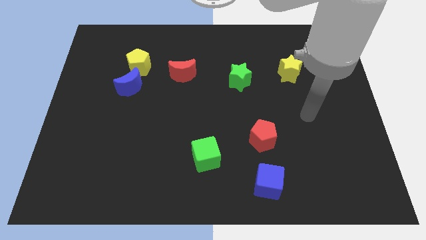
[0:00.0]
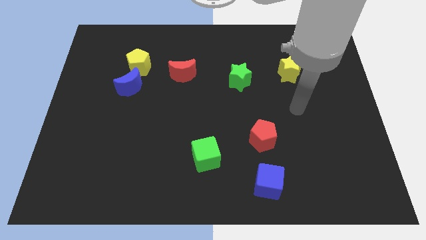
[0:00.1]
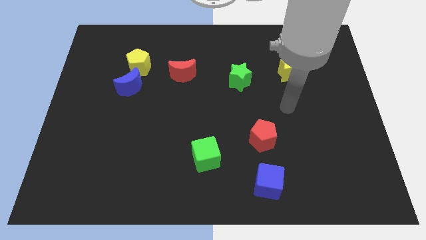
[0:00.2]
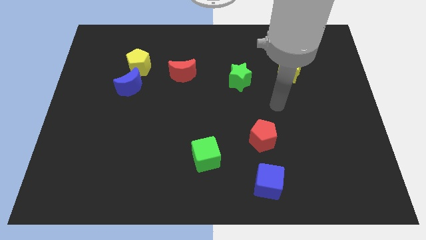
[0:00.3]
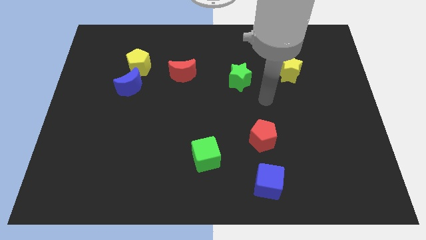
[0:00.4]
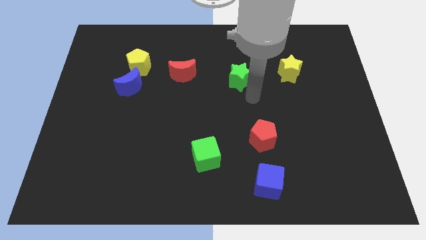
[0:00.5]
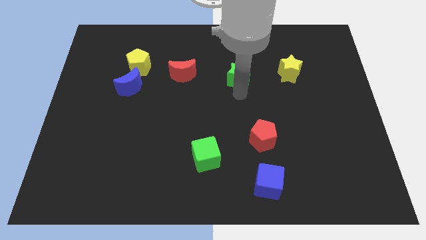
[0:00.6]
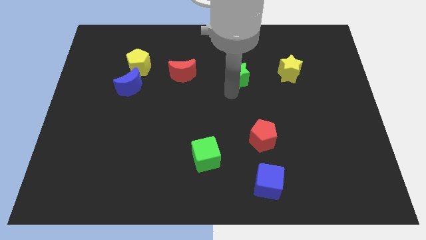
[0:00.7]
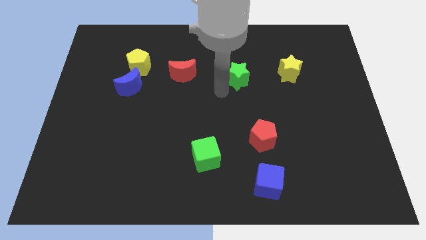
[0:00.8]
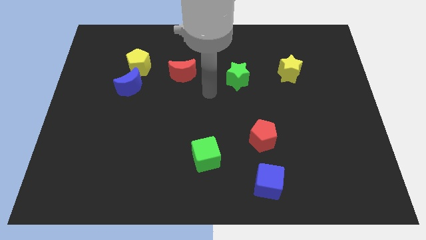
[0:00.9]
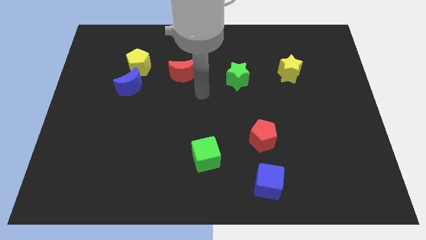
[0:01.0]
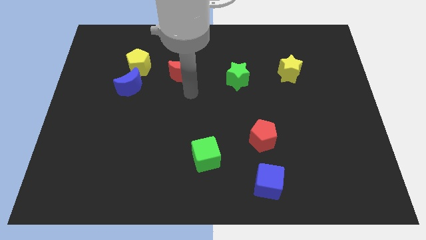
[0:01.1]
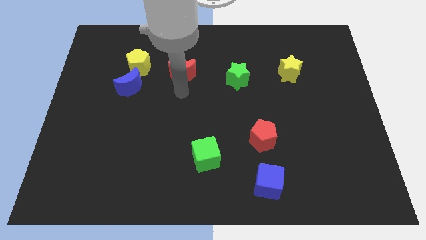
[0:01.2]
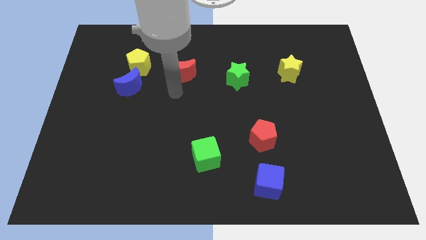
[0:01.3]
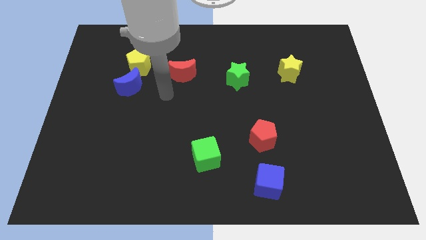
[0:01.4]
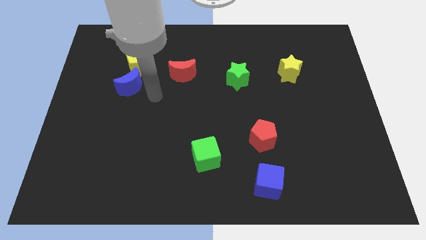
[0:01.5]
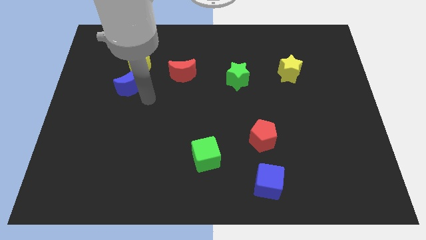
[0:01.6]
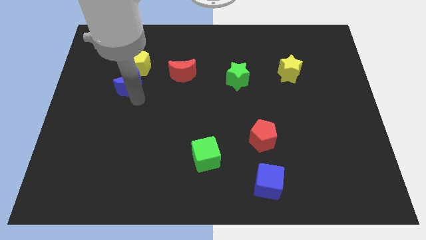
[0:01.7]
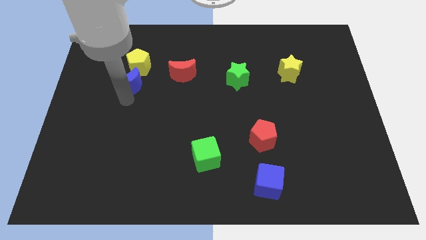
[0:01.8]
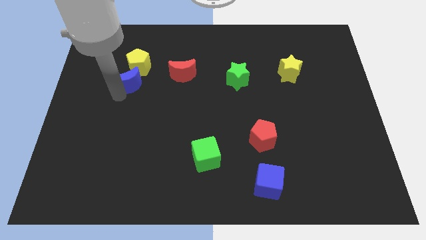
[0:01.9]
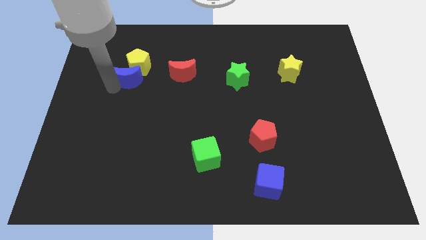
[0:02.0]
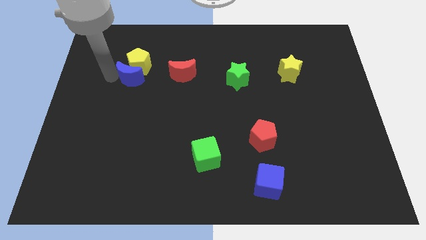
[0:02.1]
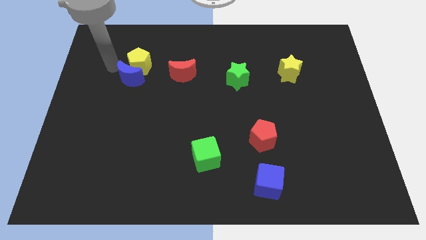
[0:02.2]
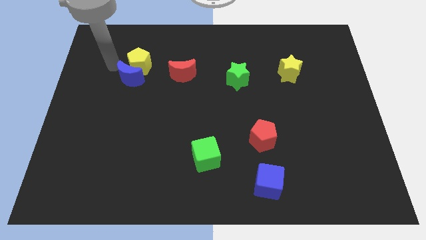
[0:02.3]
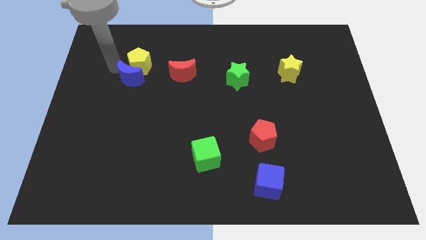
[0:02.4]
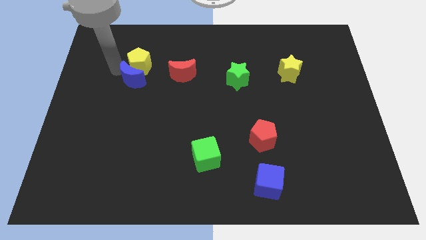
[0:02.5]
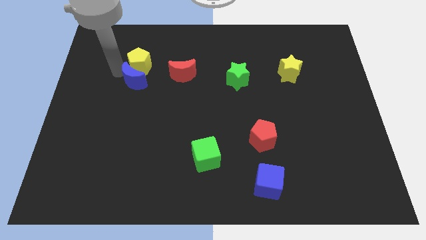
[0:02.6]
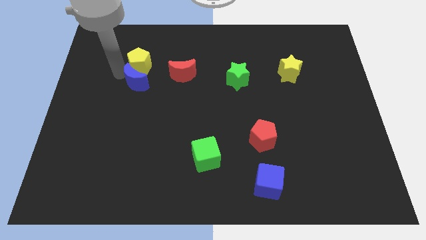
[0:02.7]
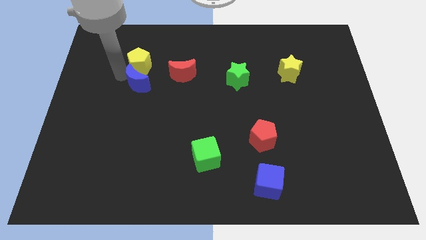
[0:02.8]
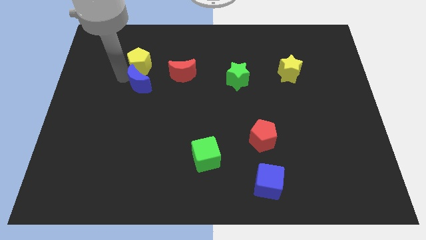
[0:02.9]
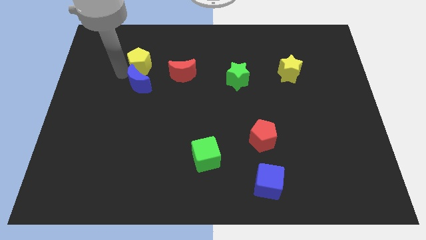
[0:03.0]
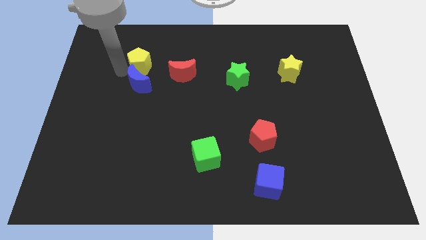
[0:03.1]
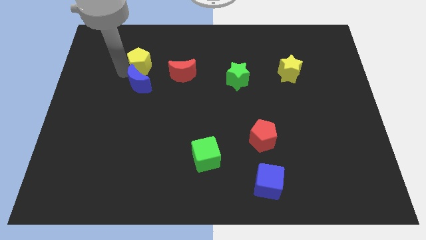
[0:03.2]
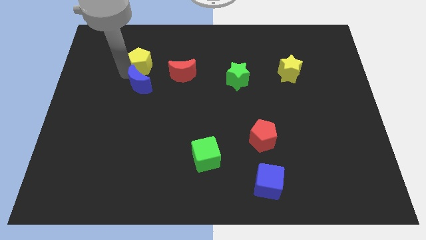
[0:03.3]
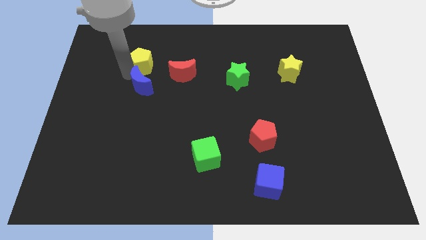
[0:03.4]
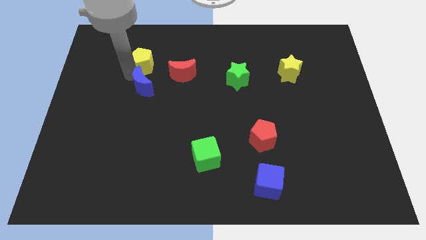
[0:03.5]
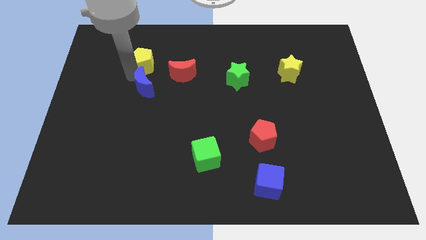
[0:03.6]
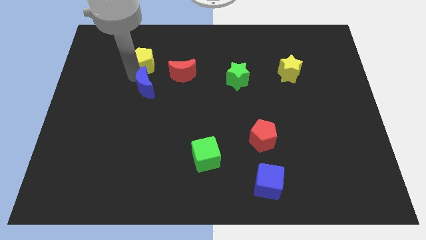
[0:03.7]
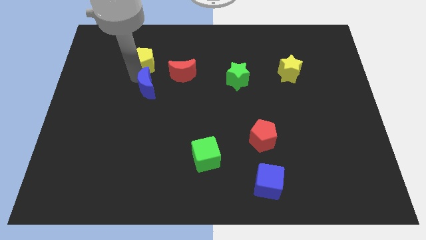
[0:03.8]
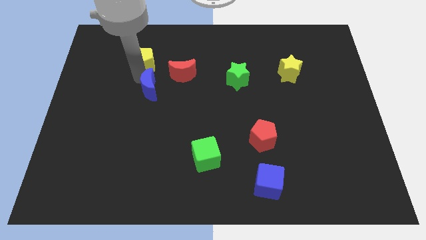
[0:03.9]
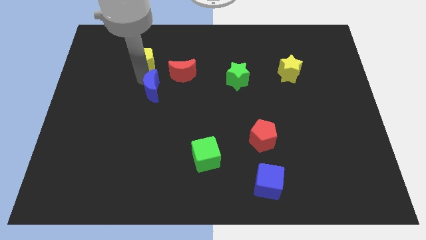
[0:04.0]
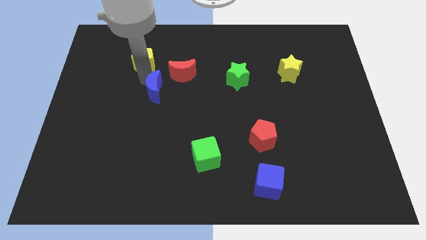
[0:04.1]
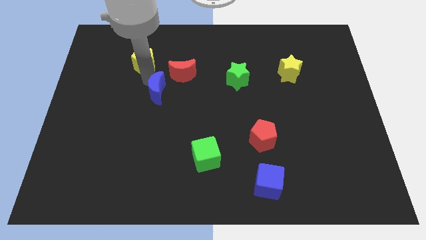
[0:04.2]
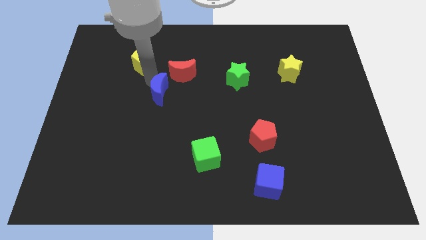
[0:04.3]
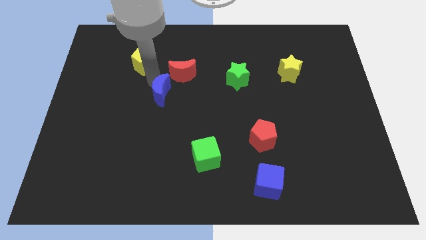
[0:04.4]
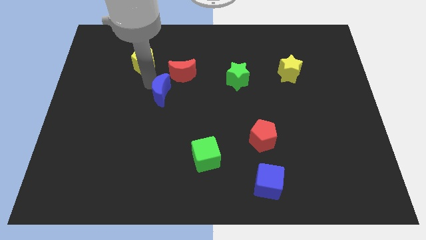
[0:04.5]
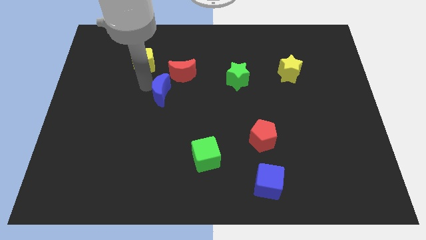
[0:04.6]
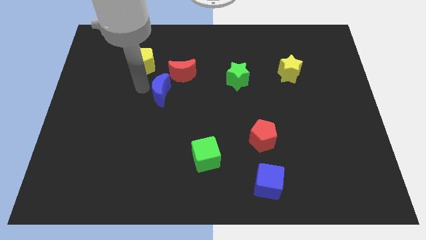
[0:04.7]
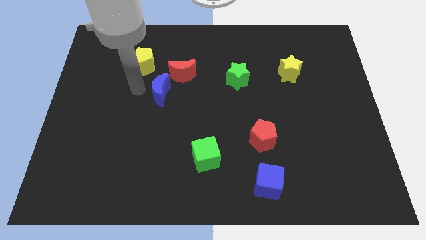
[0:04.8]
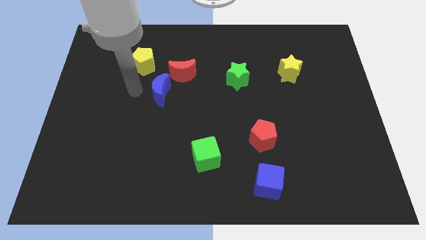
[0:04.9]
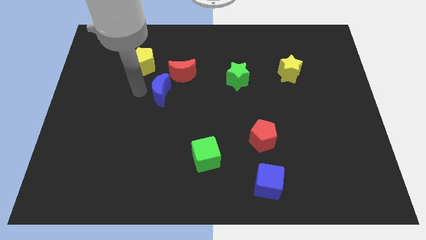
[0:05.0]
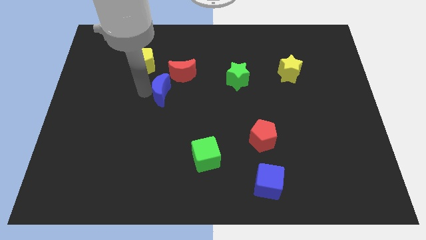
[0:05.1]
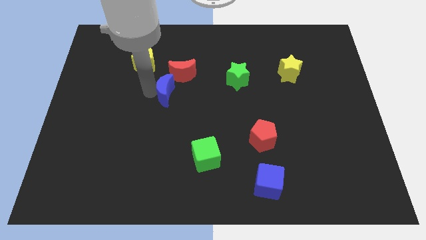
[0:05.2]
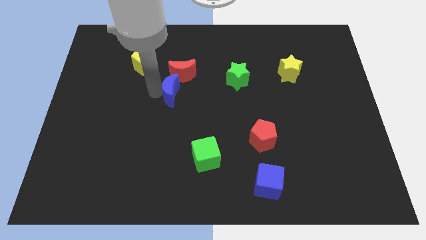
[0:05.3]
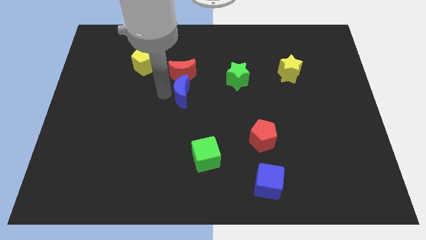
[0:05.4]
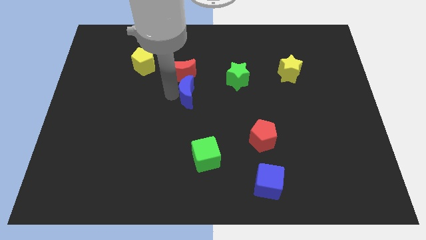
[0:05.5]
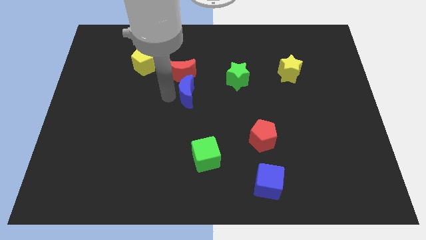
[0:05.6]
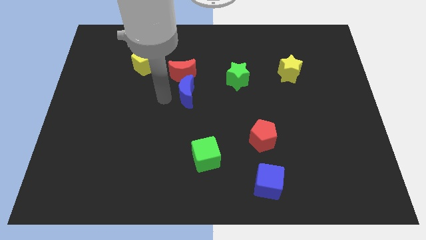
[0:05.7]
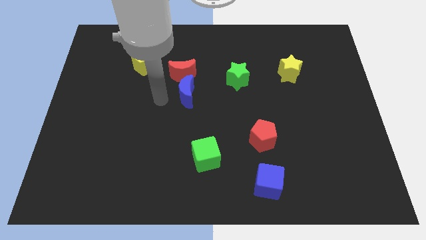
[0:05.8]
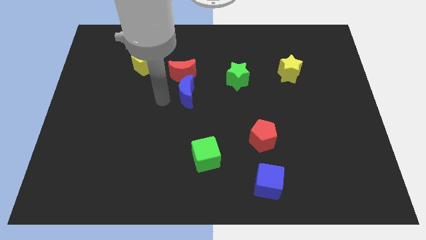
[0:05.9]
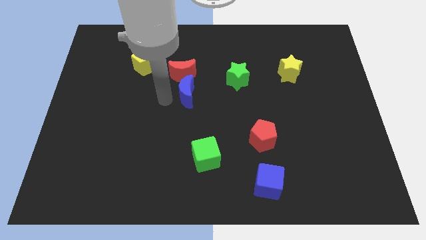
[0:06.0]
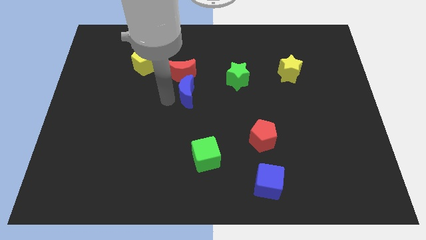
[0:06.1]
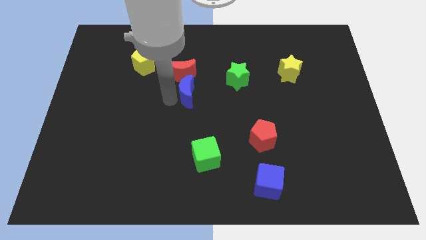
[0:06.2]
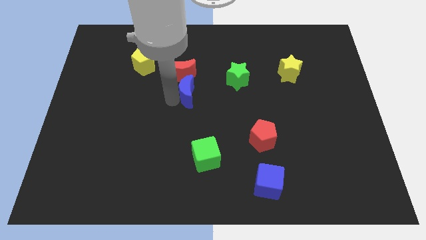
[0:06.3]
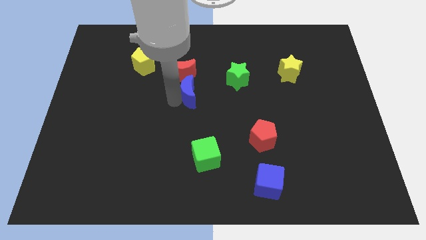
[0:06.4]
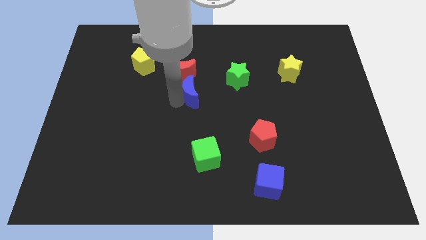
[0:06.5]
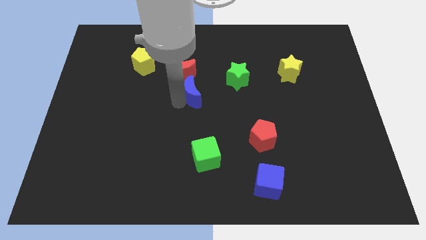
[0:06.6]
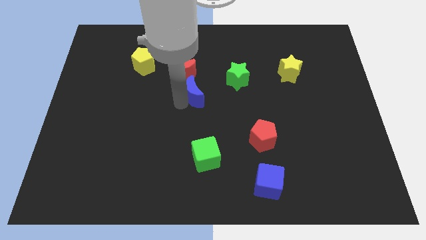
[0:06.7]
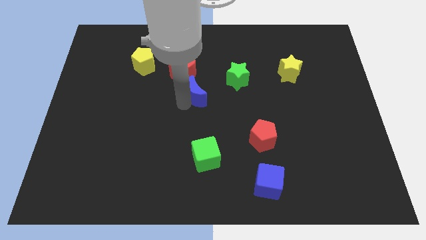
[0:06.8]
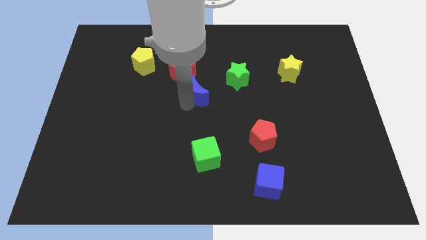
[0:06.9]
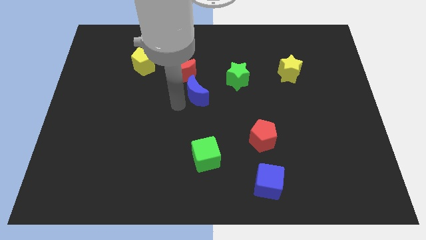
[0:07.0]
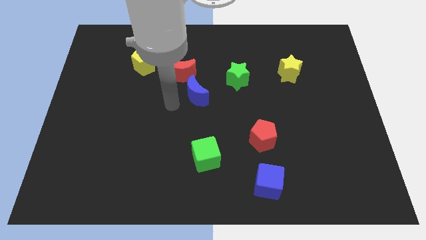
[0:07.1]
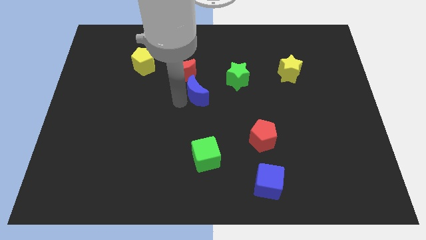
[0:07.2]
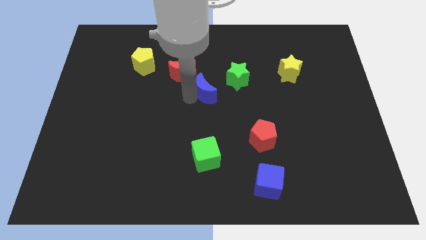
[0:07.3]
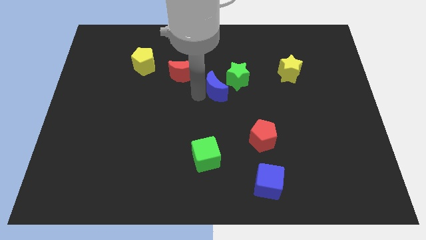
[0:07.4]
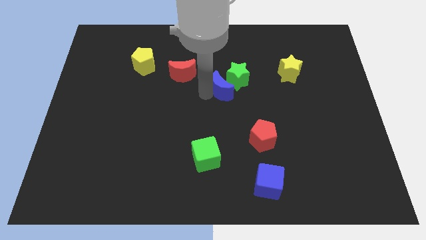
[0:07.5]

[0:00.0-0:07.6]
put the blue moon close to the green star
